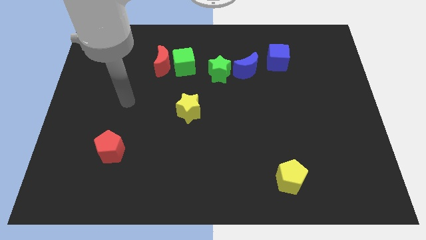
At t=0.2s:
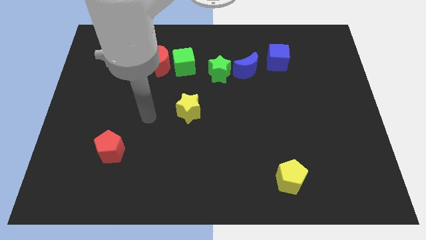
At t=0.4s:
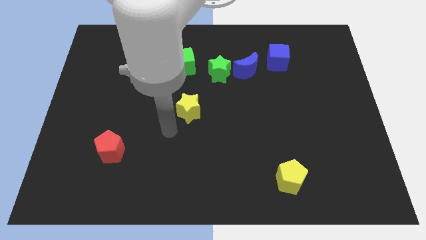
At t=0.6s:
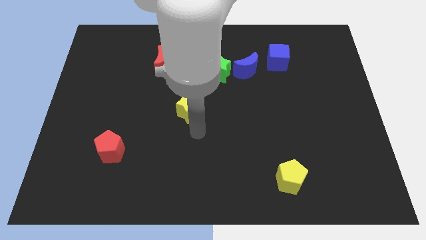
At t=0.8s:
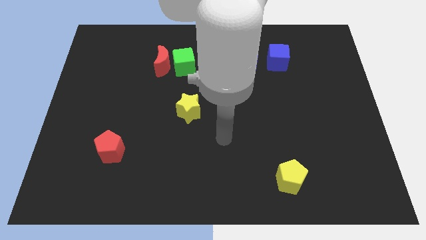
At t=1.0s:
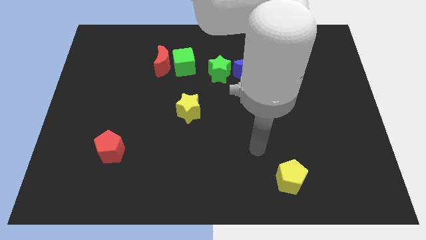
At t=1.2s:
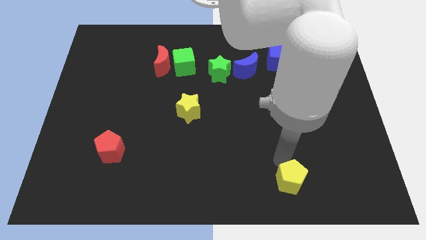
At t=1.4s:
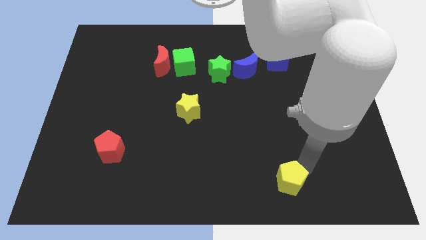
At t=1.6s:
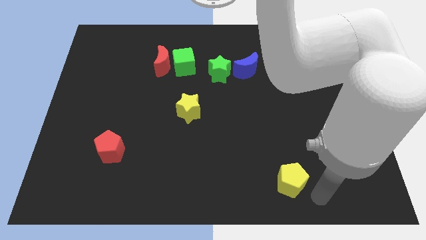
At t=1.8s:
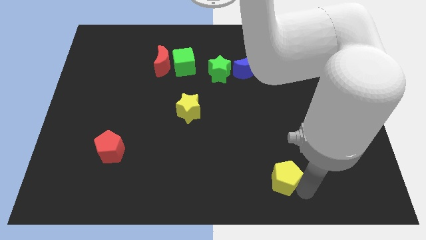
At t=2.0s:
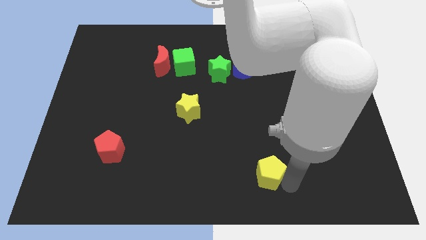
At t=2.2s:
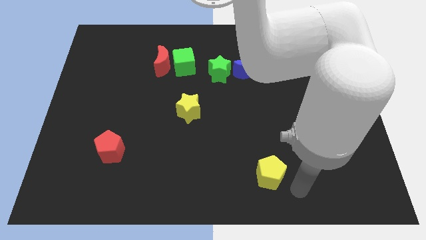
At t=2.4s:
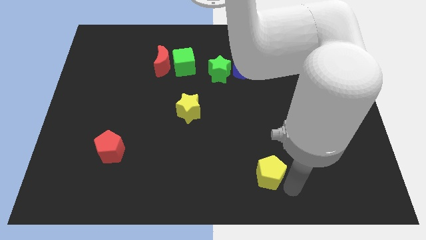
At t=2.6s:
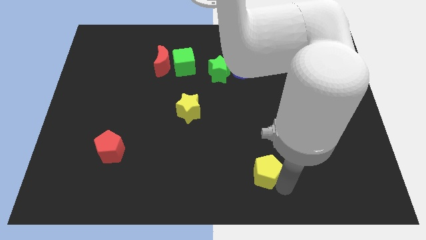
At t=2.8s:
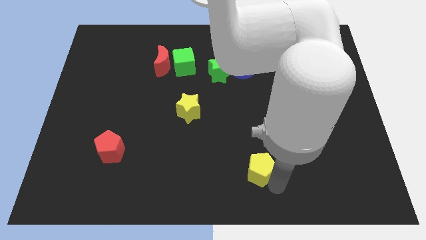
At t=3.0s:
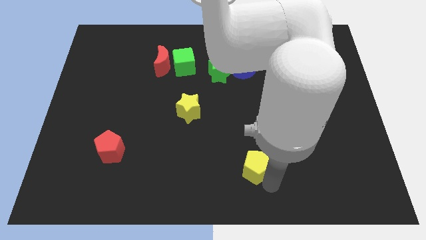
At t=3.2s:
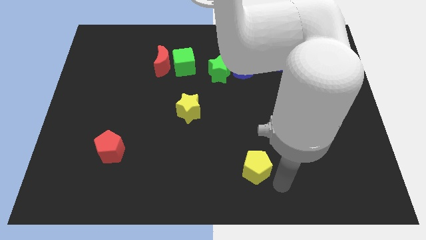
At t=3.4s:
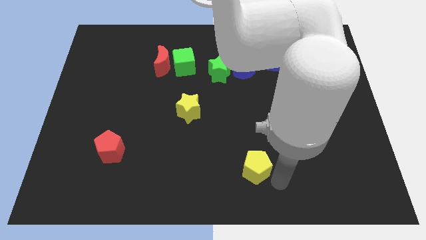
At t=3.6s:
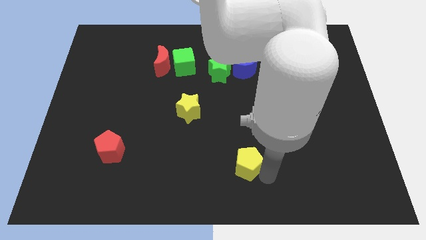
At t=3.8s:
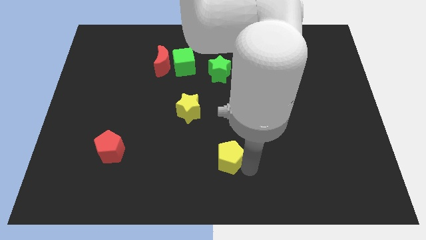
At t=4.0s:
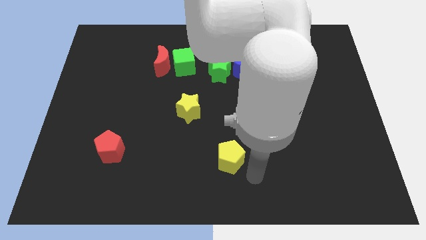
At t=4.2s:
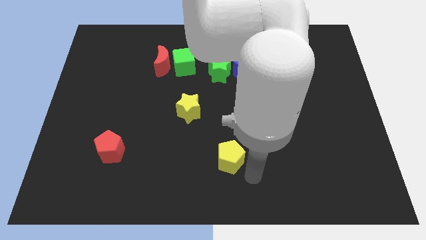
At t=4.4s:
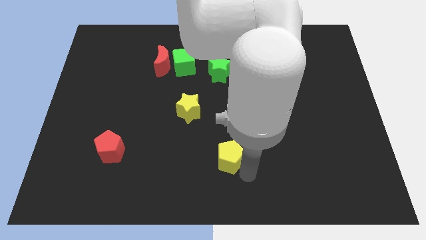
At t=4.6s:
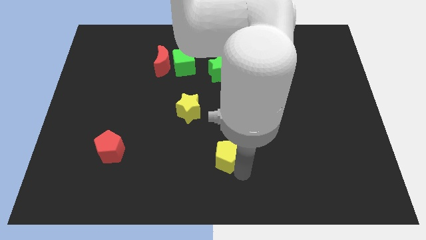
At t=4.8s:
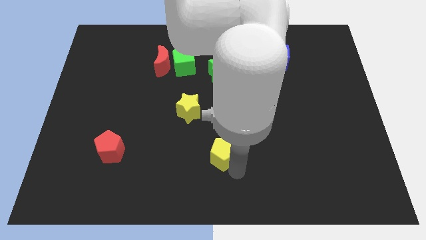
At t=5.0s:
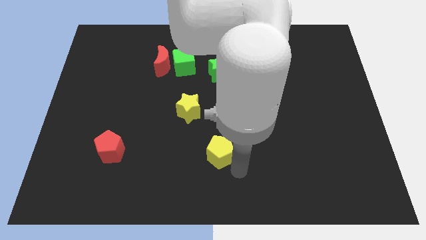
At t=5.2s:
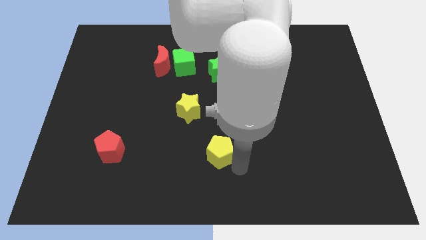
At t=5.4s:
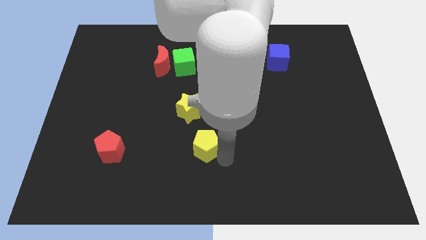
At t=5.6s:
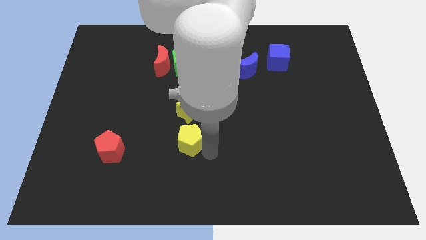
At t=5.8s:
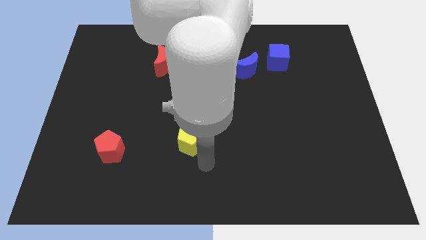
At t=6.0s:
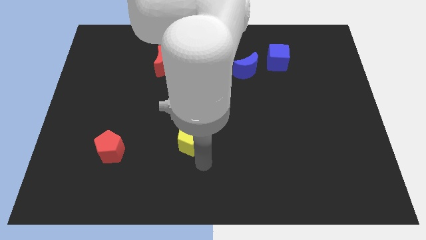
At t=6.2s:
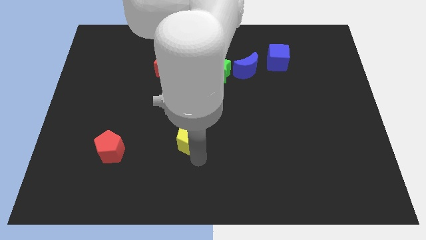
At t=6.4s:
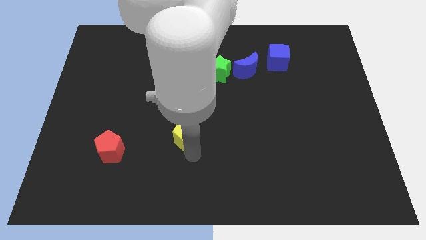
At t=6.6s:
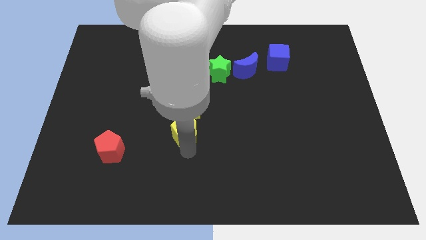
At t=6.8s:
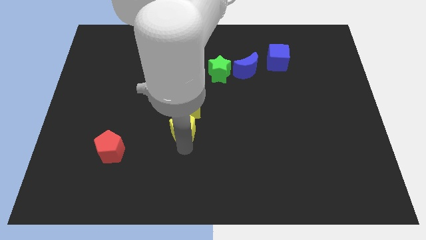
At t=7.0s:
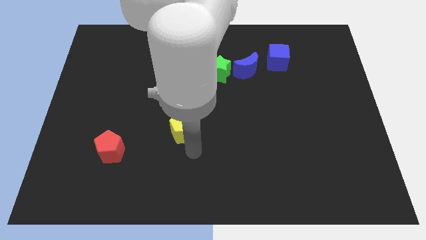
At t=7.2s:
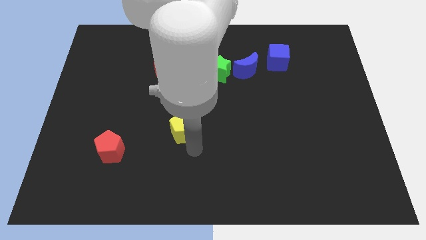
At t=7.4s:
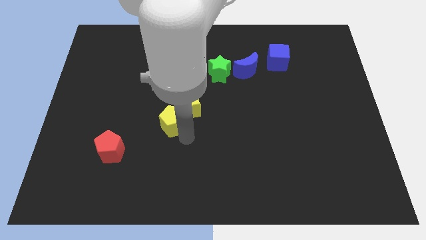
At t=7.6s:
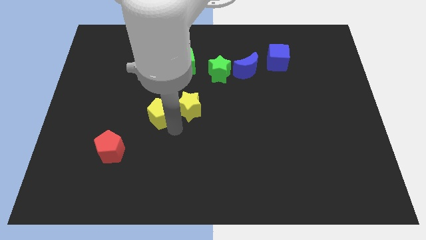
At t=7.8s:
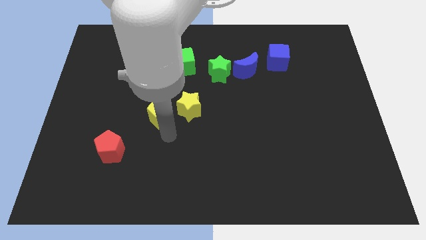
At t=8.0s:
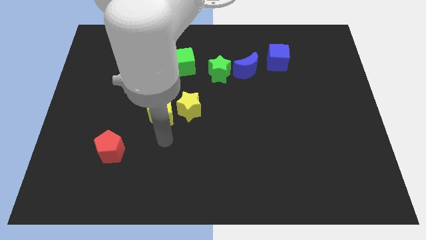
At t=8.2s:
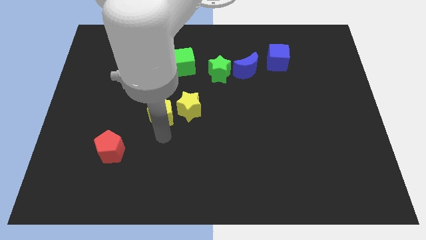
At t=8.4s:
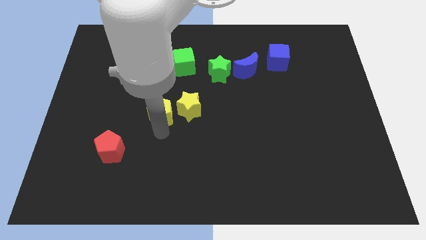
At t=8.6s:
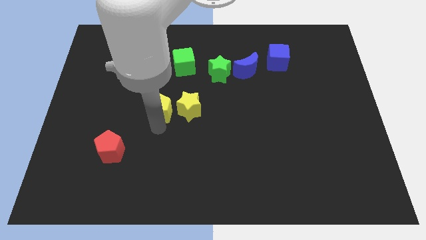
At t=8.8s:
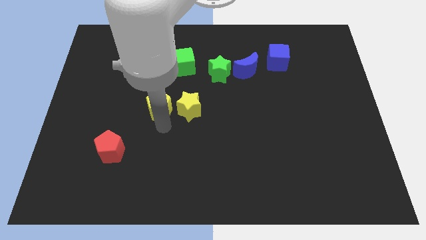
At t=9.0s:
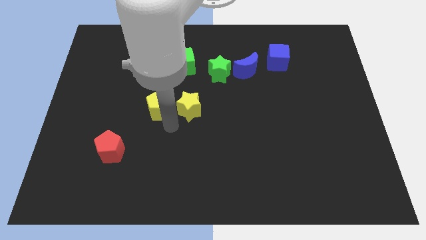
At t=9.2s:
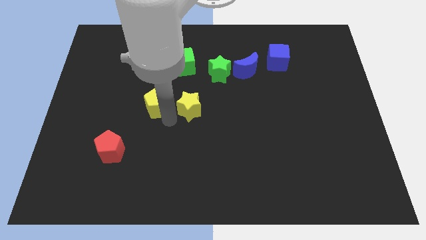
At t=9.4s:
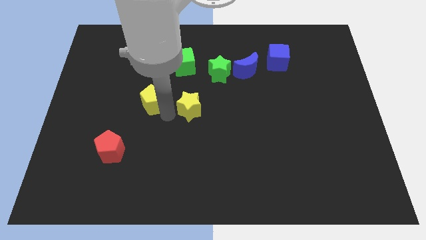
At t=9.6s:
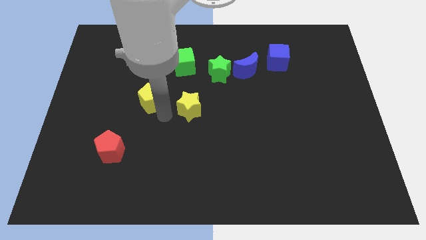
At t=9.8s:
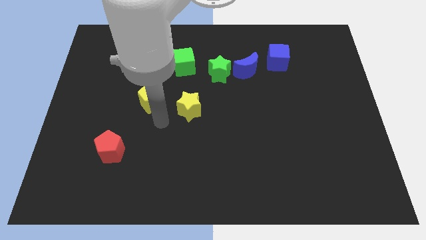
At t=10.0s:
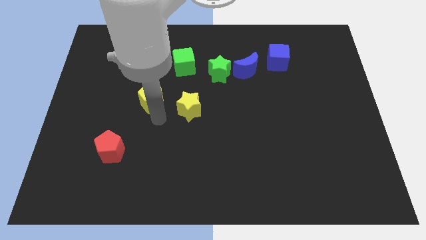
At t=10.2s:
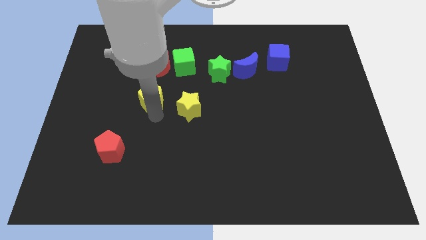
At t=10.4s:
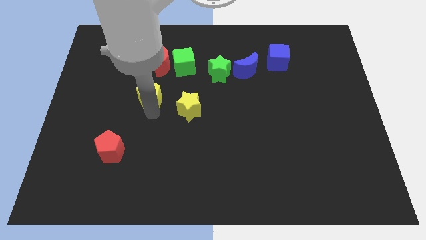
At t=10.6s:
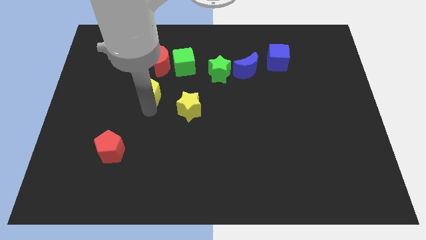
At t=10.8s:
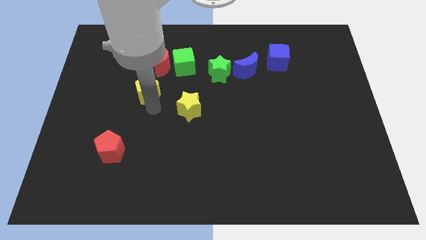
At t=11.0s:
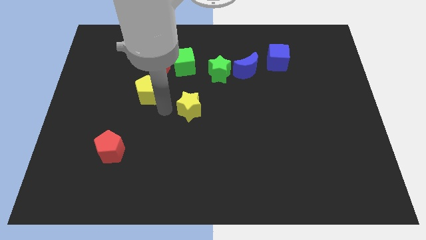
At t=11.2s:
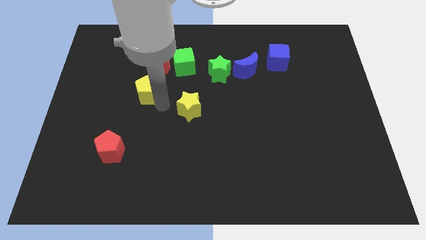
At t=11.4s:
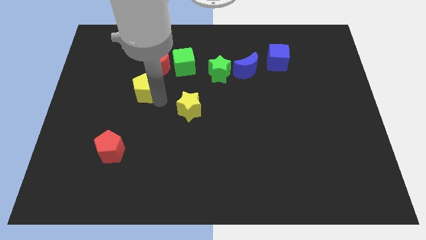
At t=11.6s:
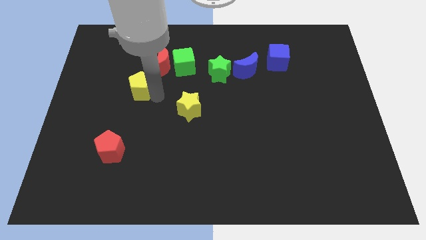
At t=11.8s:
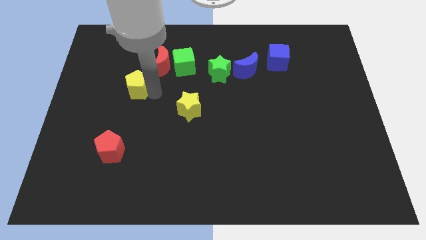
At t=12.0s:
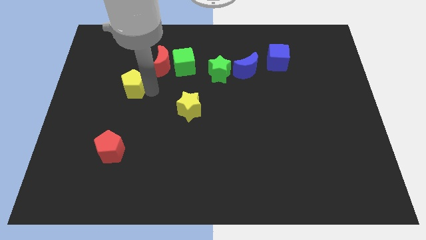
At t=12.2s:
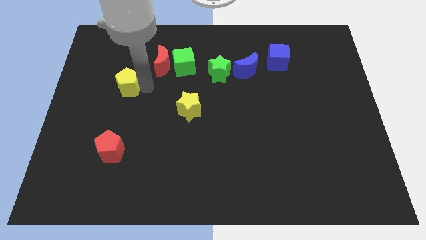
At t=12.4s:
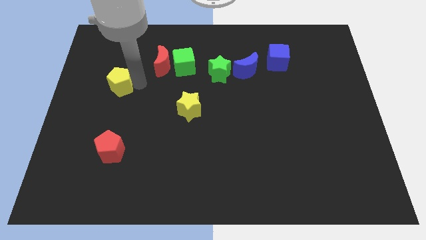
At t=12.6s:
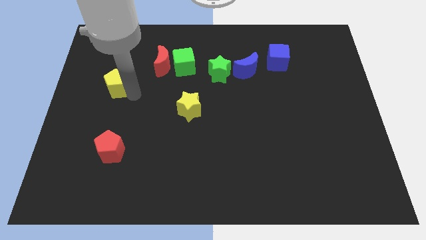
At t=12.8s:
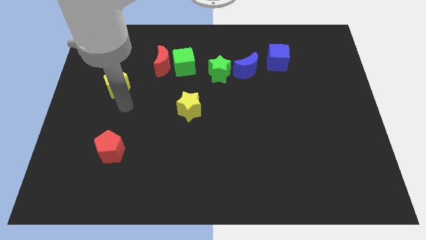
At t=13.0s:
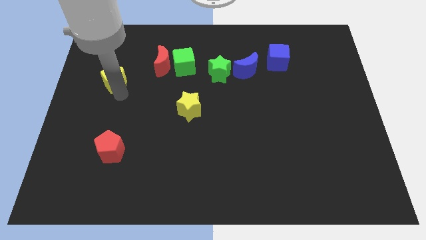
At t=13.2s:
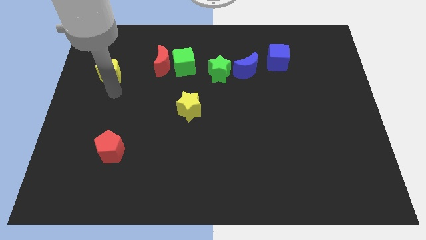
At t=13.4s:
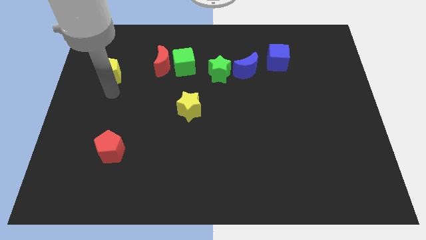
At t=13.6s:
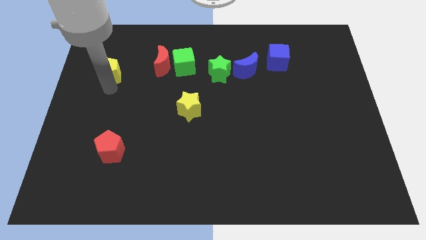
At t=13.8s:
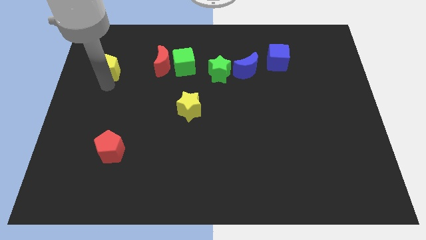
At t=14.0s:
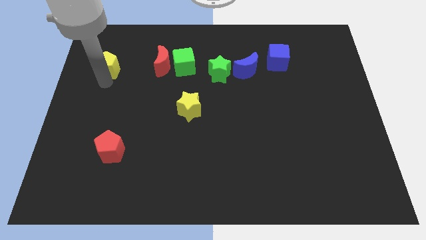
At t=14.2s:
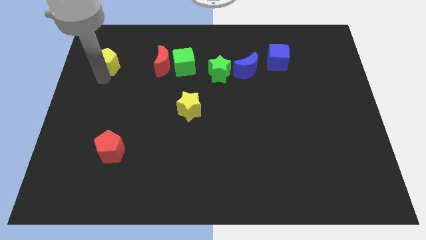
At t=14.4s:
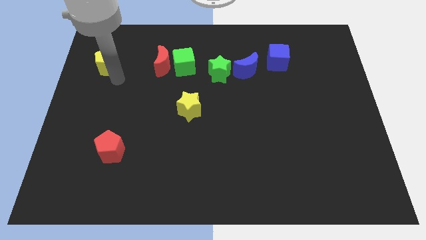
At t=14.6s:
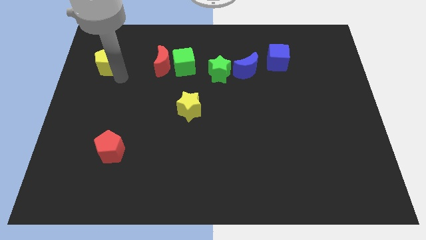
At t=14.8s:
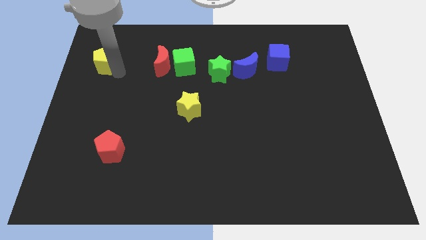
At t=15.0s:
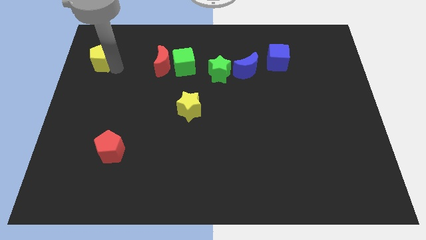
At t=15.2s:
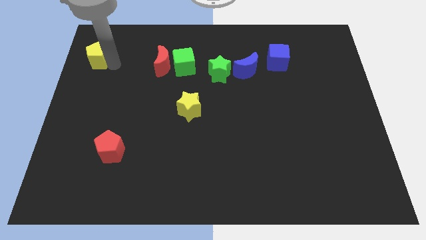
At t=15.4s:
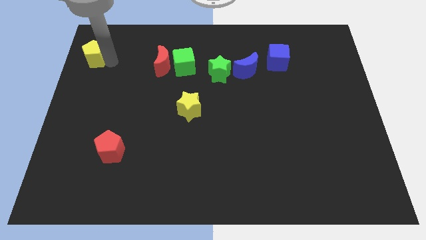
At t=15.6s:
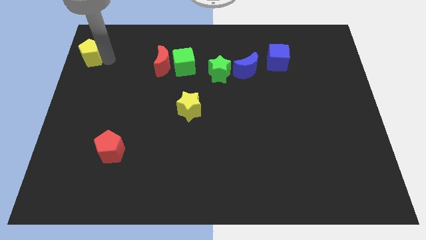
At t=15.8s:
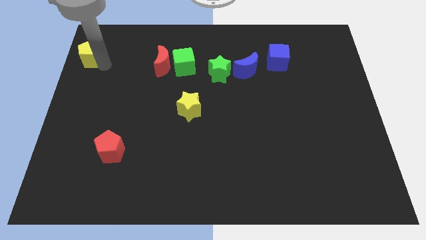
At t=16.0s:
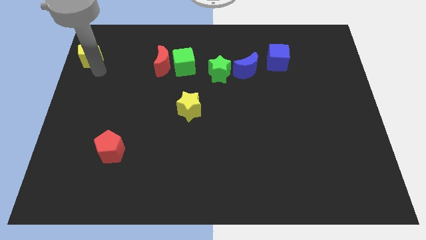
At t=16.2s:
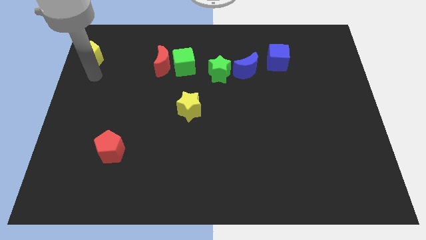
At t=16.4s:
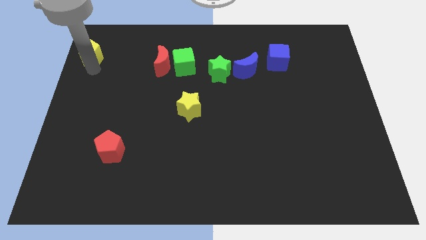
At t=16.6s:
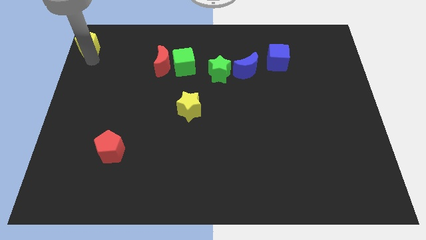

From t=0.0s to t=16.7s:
put the yellow pentagon to the top left
